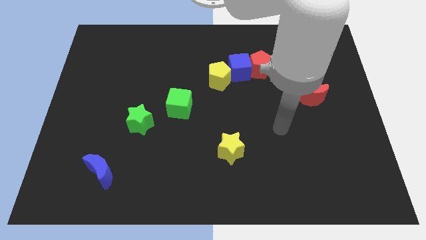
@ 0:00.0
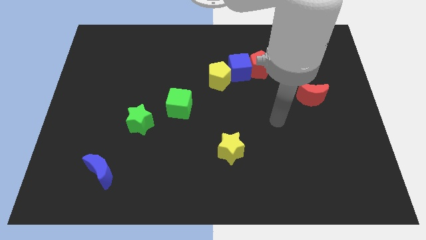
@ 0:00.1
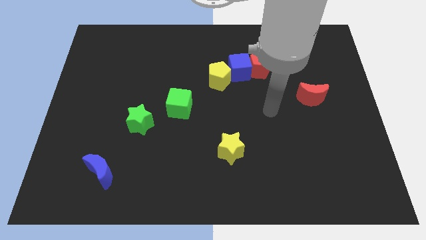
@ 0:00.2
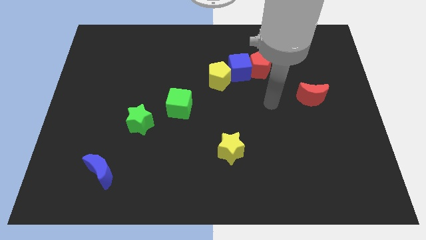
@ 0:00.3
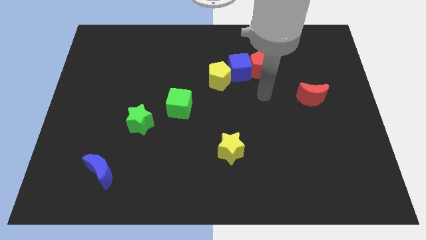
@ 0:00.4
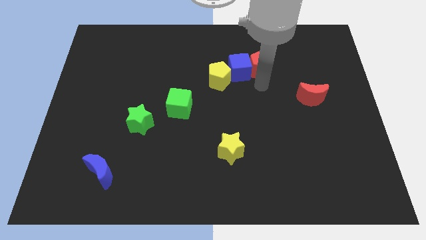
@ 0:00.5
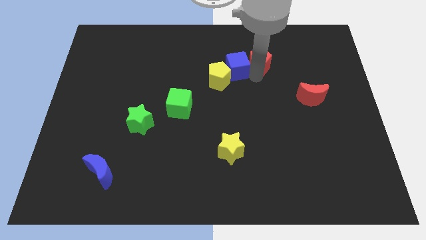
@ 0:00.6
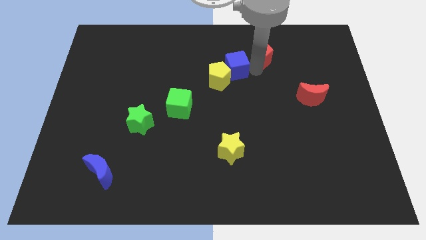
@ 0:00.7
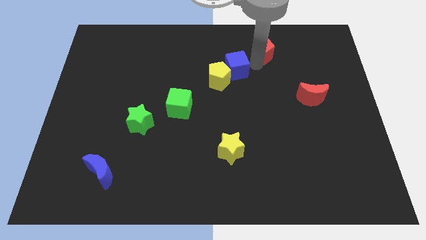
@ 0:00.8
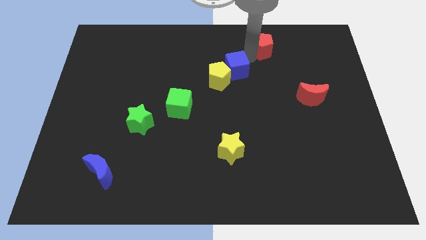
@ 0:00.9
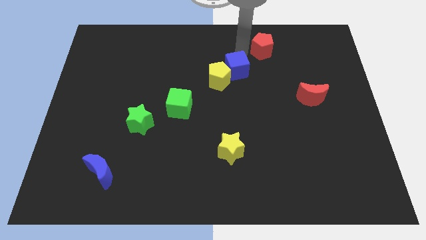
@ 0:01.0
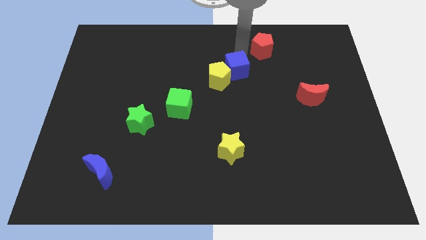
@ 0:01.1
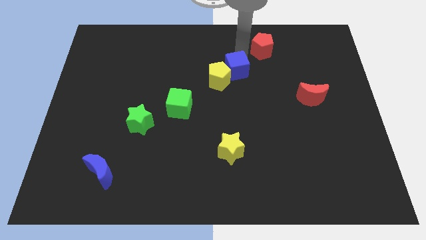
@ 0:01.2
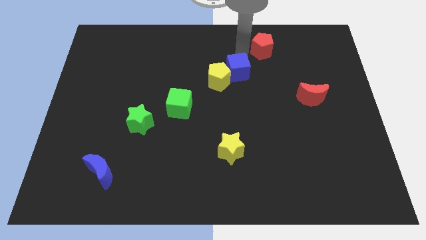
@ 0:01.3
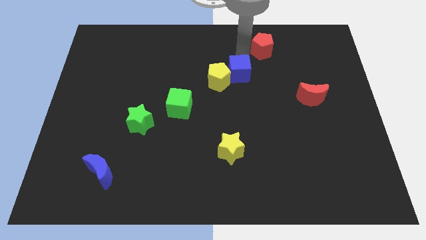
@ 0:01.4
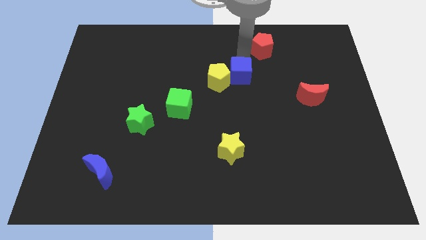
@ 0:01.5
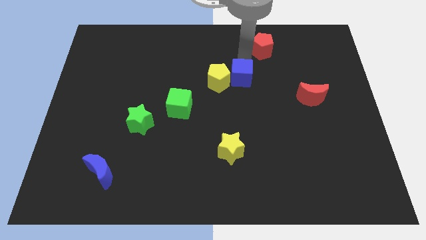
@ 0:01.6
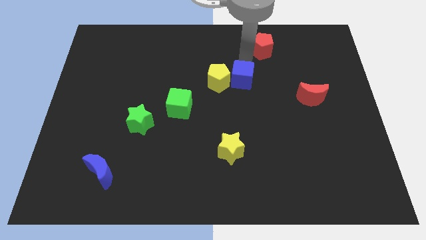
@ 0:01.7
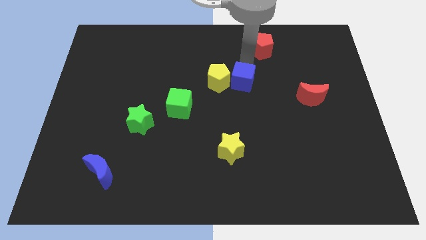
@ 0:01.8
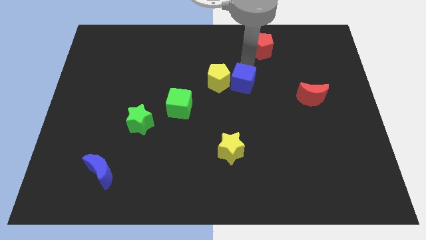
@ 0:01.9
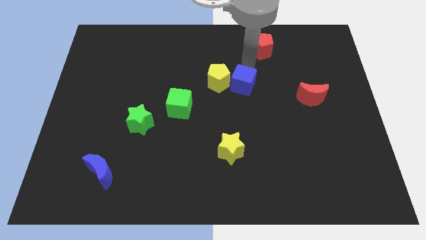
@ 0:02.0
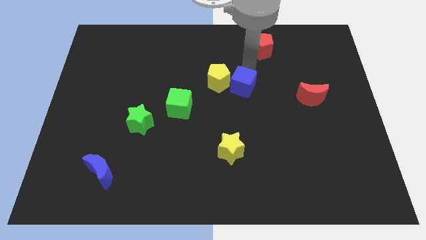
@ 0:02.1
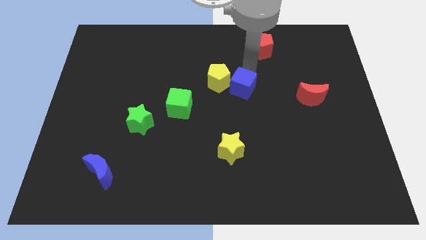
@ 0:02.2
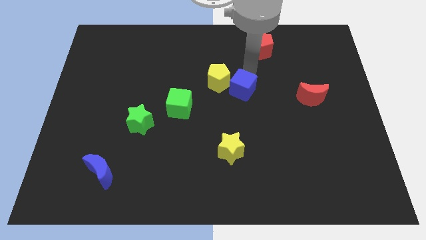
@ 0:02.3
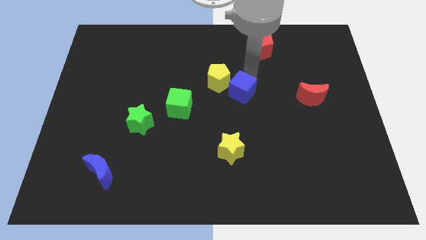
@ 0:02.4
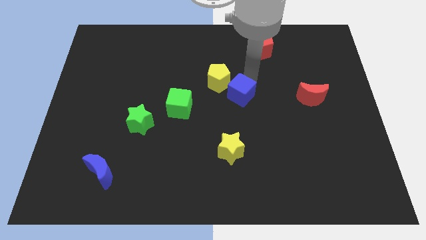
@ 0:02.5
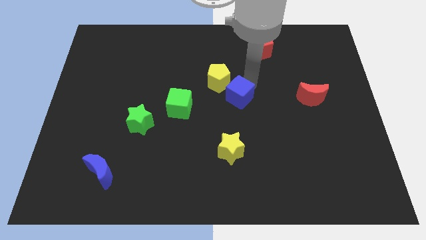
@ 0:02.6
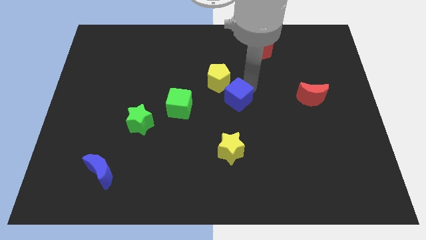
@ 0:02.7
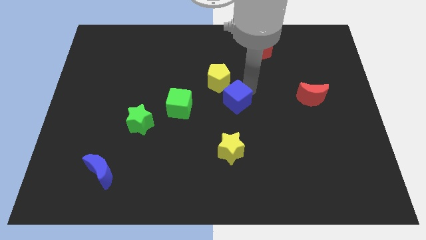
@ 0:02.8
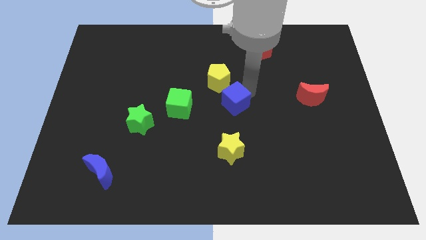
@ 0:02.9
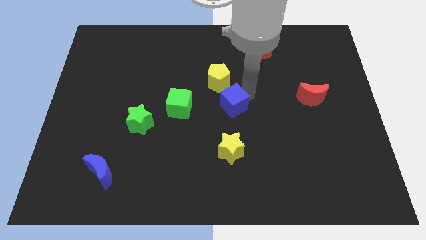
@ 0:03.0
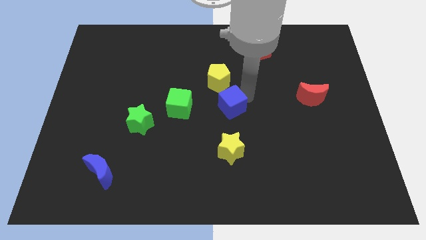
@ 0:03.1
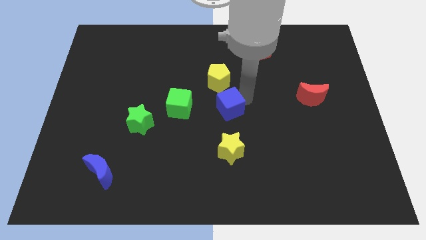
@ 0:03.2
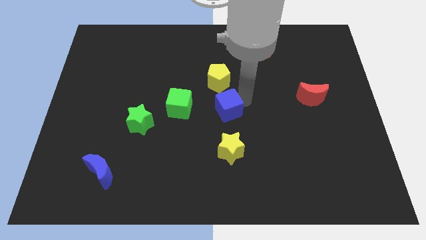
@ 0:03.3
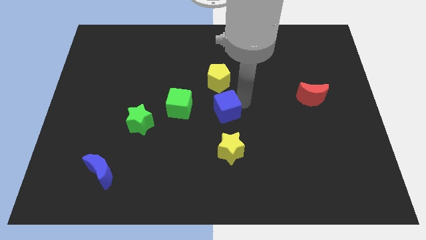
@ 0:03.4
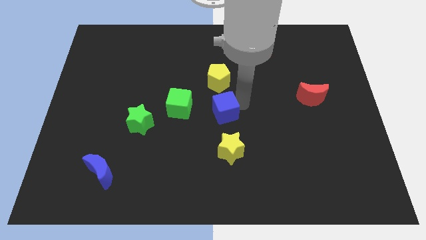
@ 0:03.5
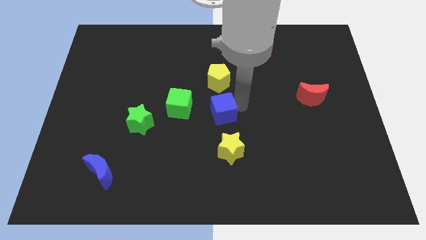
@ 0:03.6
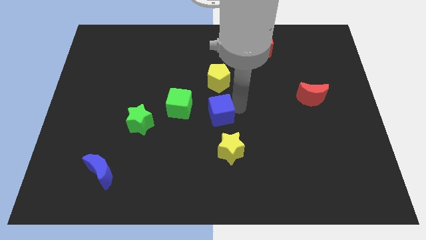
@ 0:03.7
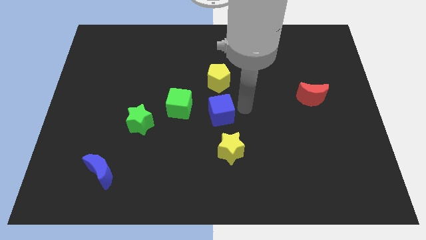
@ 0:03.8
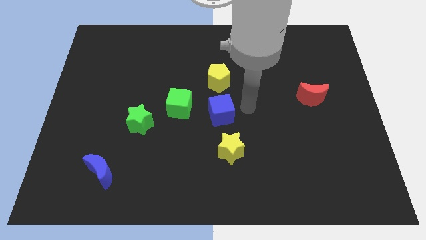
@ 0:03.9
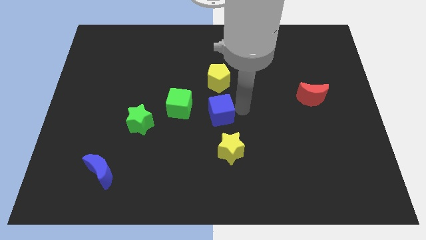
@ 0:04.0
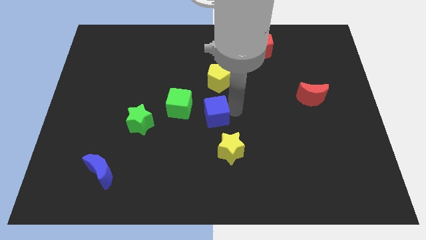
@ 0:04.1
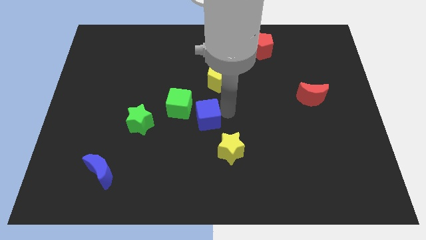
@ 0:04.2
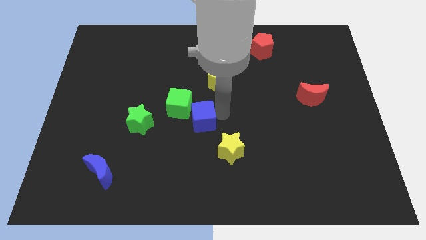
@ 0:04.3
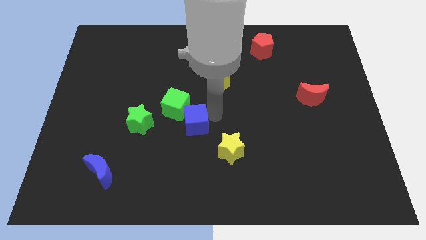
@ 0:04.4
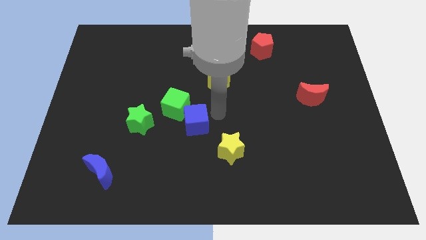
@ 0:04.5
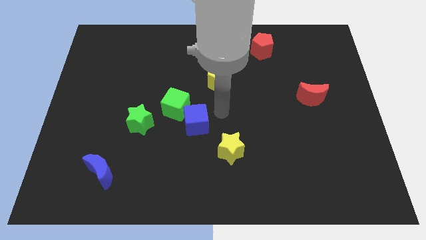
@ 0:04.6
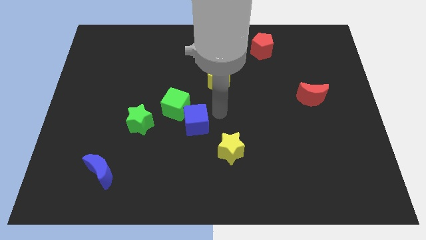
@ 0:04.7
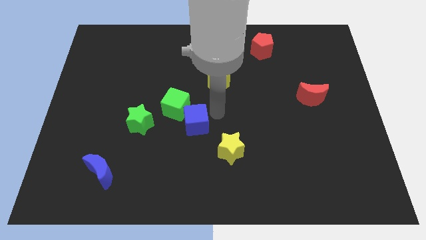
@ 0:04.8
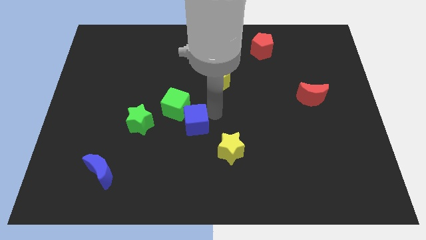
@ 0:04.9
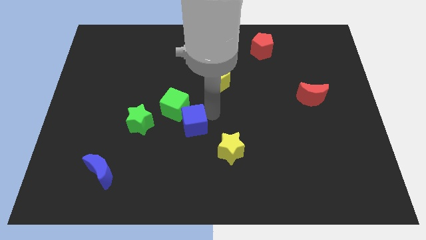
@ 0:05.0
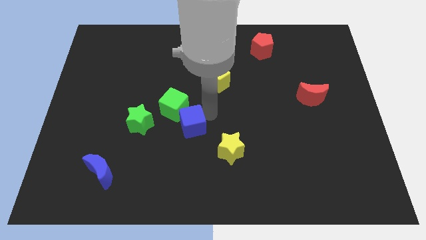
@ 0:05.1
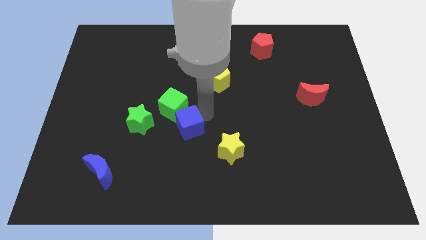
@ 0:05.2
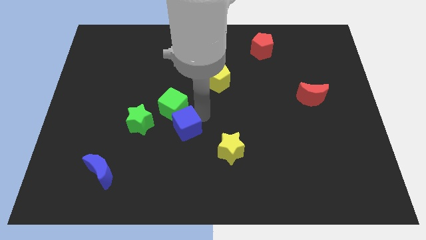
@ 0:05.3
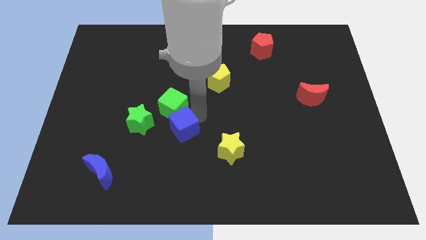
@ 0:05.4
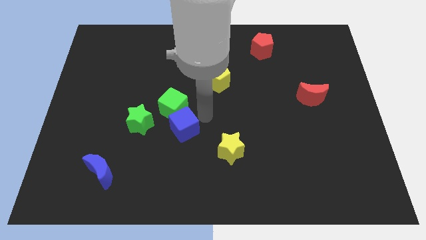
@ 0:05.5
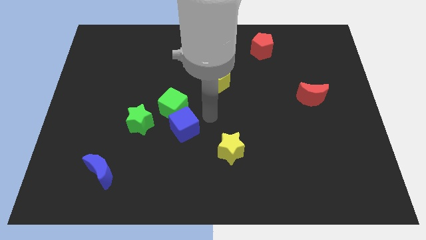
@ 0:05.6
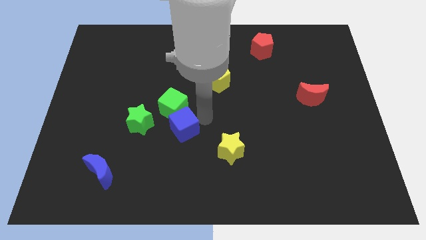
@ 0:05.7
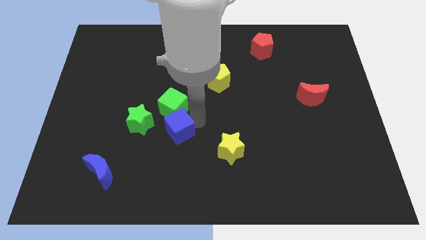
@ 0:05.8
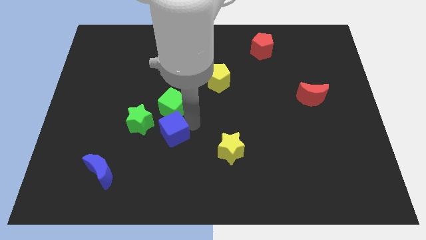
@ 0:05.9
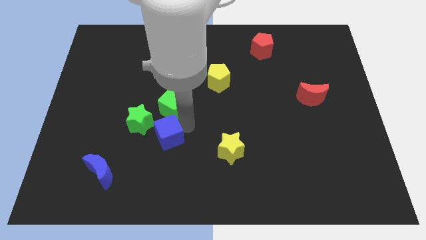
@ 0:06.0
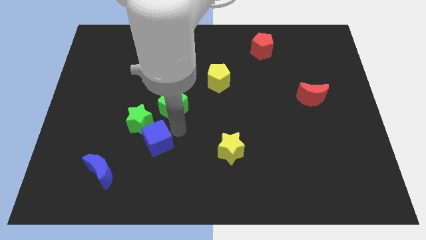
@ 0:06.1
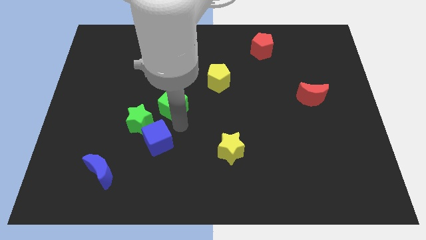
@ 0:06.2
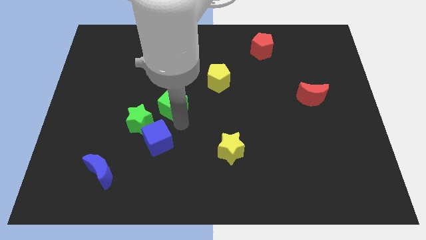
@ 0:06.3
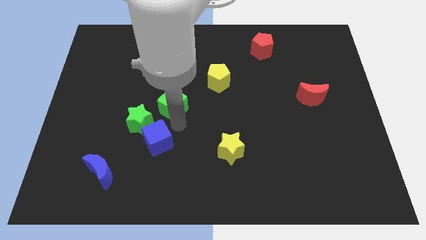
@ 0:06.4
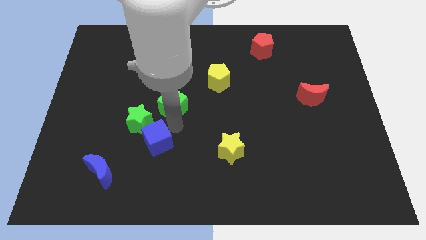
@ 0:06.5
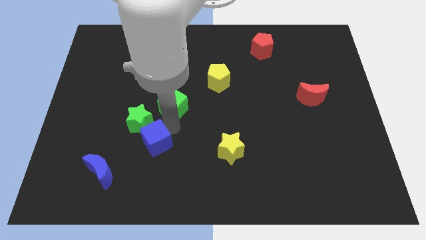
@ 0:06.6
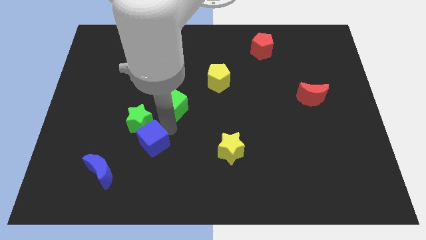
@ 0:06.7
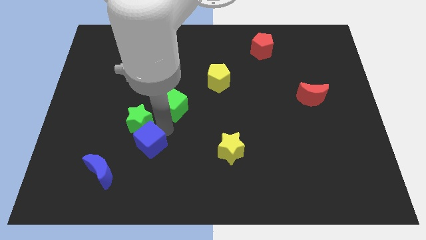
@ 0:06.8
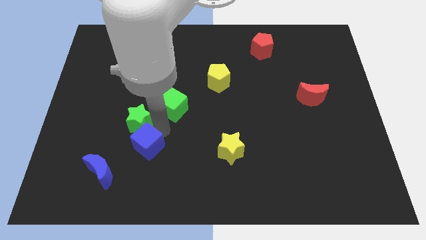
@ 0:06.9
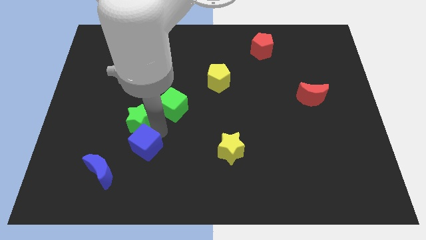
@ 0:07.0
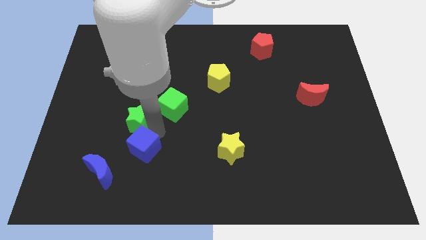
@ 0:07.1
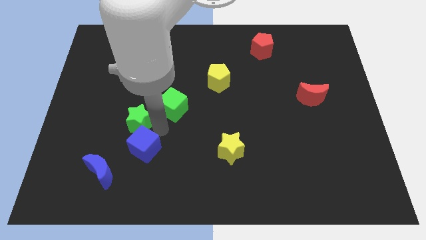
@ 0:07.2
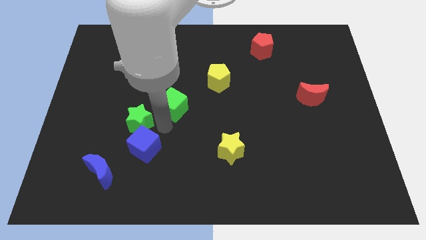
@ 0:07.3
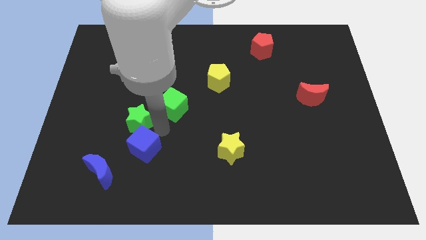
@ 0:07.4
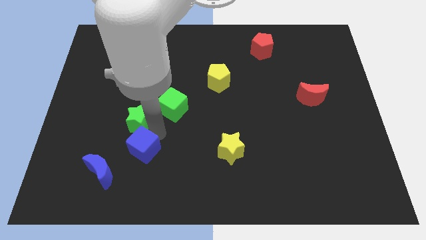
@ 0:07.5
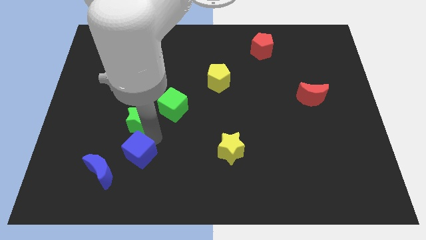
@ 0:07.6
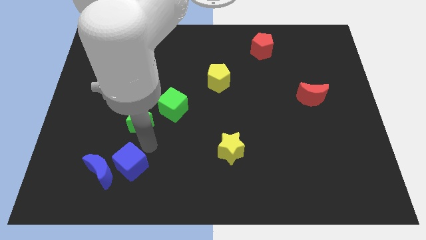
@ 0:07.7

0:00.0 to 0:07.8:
slide the blue cube close to the blue moon
